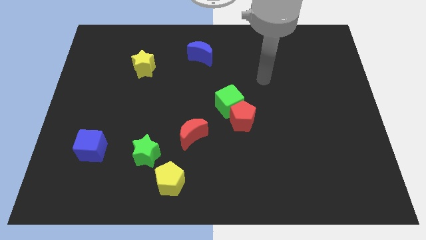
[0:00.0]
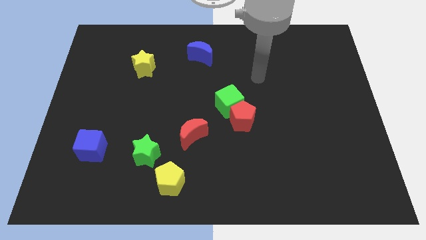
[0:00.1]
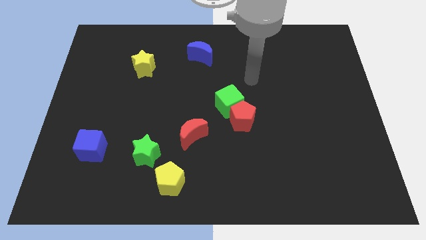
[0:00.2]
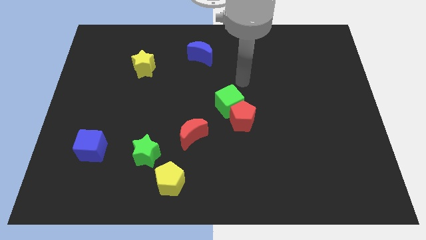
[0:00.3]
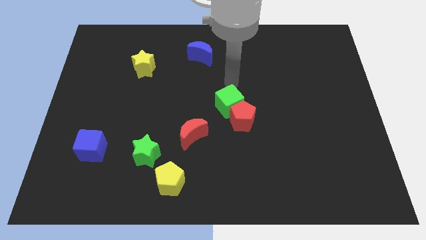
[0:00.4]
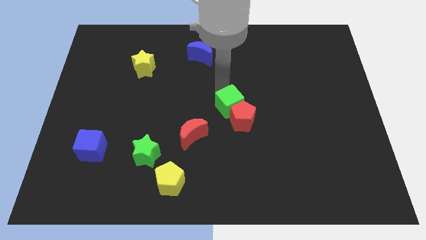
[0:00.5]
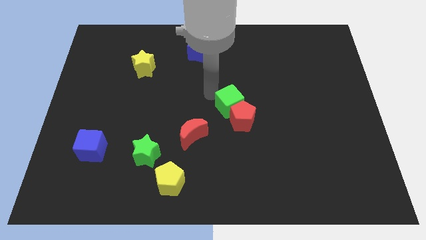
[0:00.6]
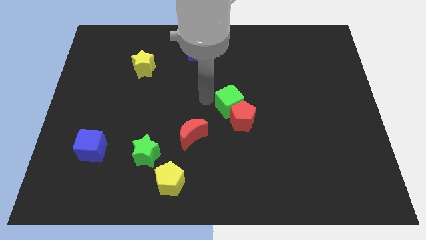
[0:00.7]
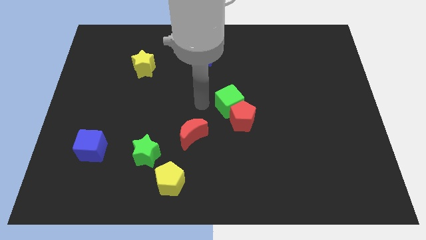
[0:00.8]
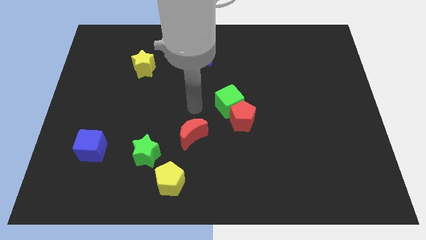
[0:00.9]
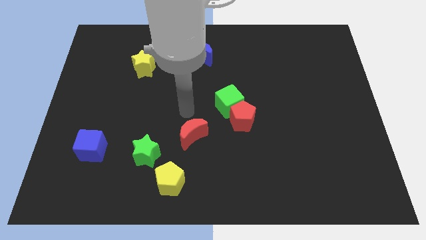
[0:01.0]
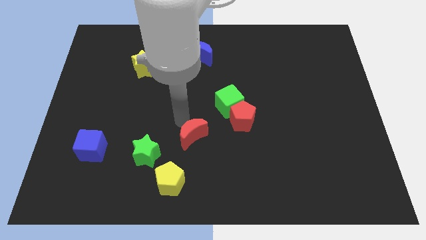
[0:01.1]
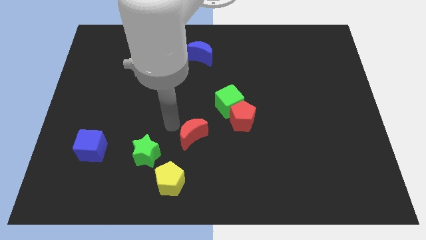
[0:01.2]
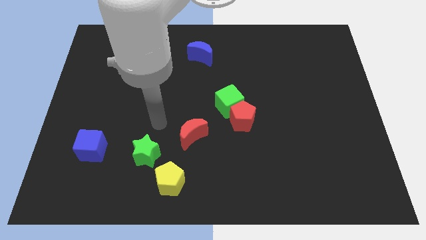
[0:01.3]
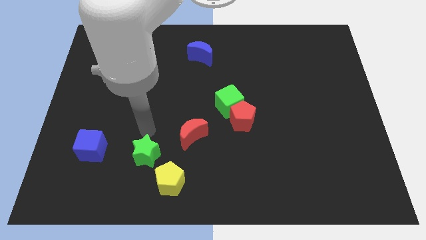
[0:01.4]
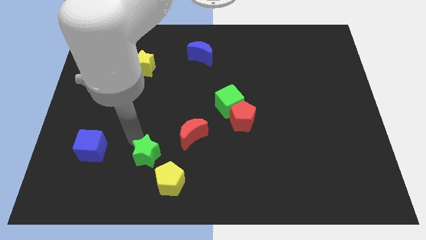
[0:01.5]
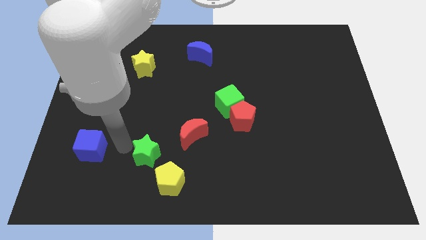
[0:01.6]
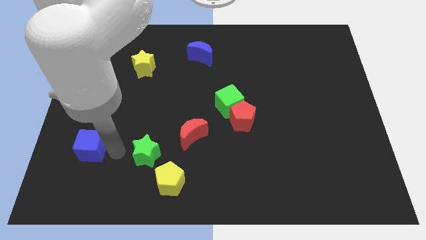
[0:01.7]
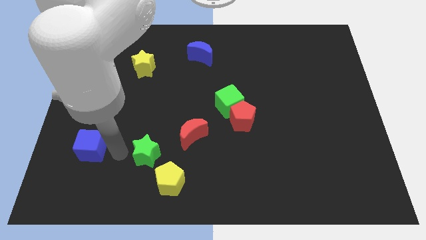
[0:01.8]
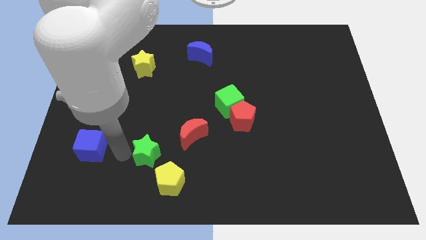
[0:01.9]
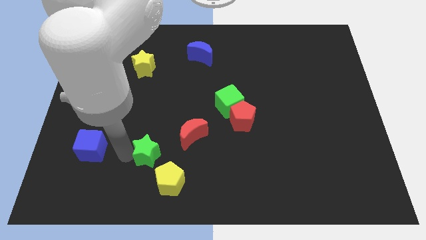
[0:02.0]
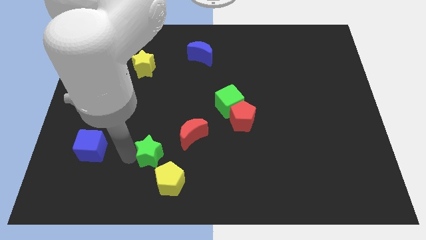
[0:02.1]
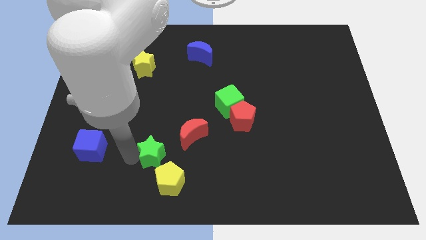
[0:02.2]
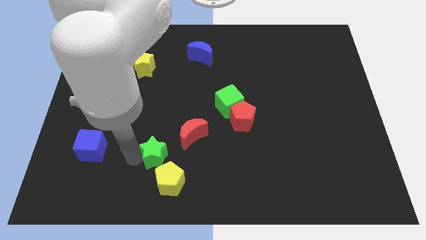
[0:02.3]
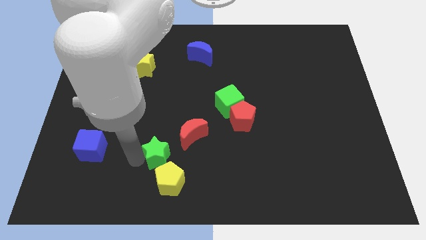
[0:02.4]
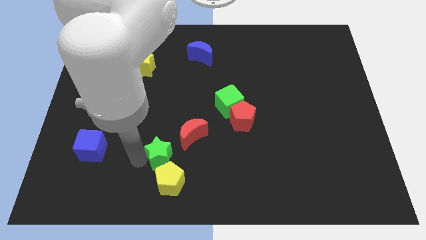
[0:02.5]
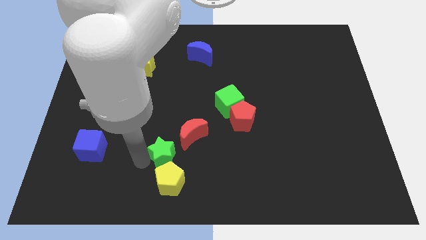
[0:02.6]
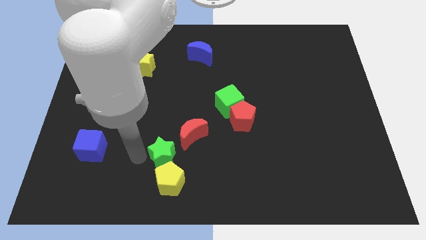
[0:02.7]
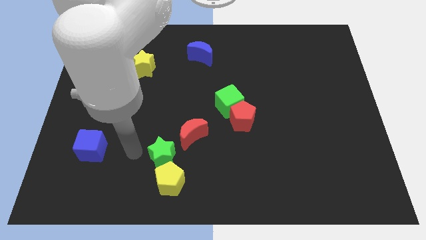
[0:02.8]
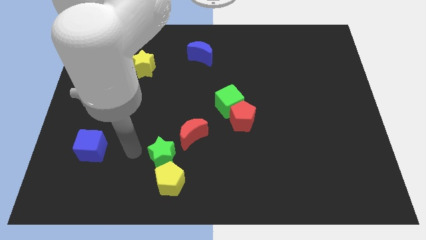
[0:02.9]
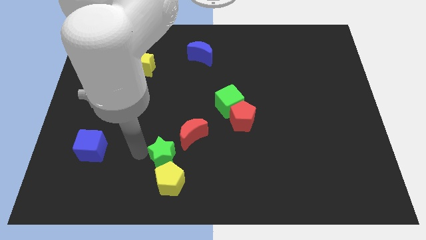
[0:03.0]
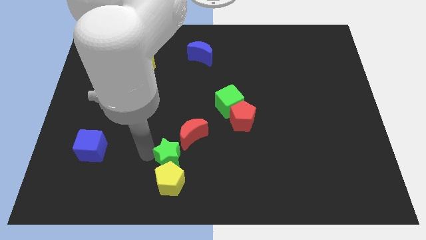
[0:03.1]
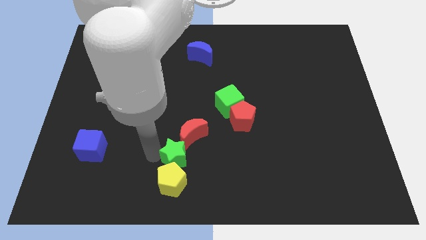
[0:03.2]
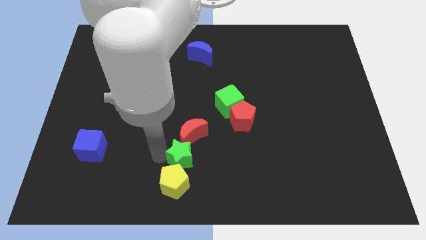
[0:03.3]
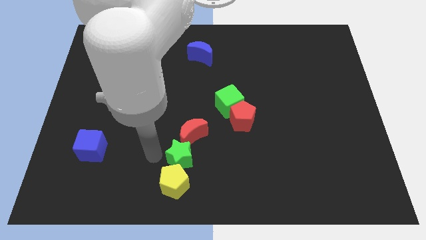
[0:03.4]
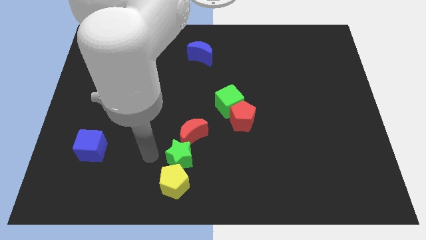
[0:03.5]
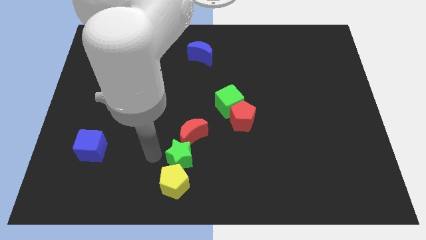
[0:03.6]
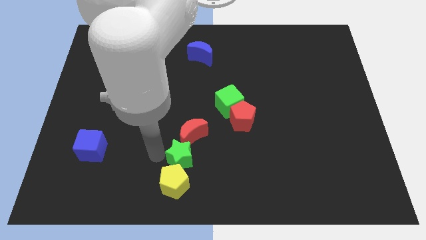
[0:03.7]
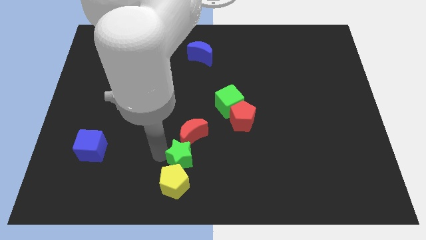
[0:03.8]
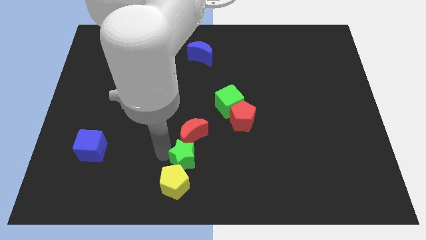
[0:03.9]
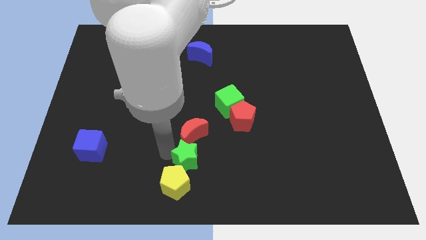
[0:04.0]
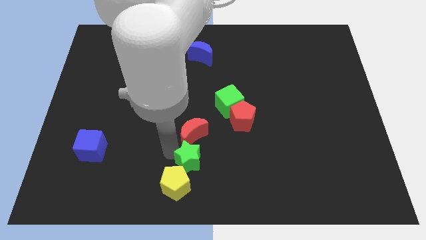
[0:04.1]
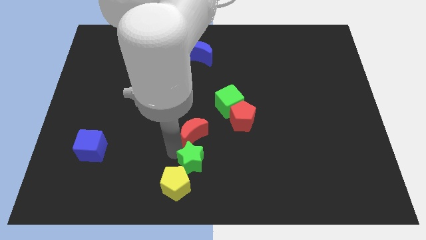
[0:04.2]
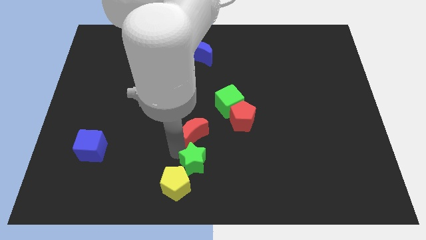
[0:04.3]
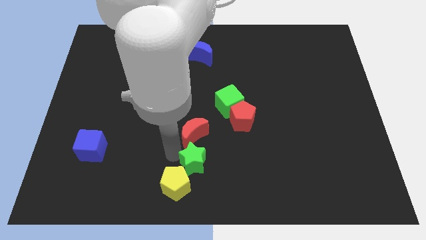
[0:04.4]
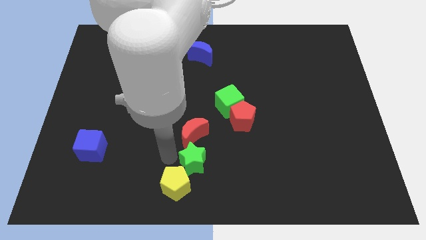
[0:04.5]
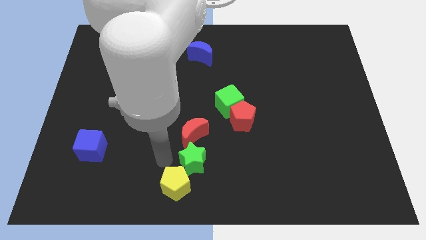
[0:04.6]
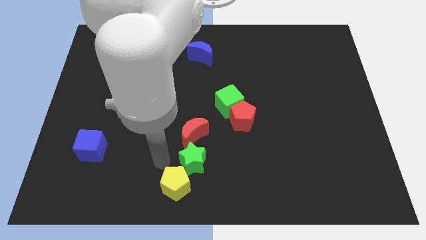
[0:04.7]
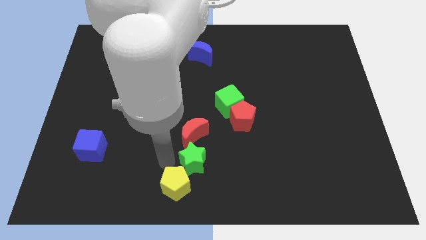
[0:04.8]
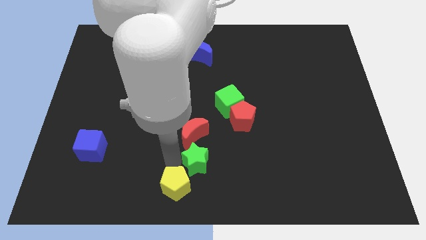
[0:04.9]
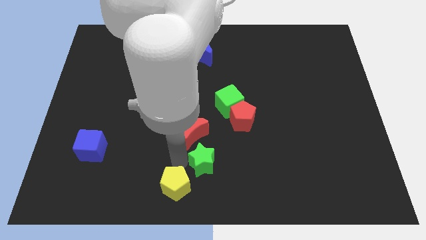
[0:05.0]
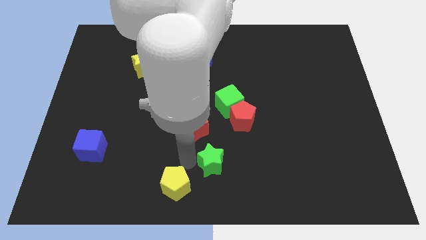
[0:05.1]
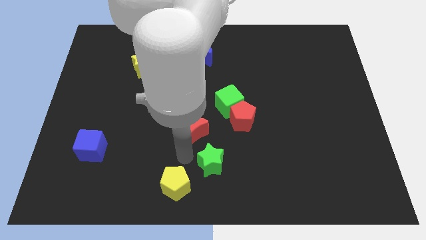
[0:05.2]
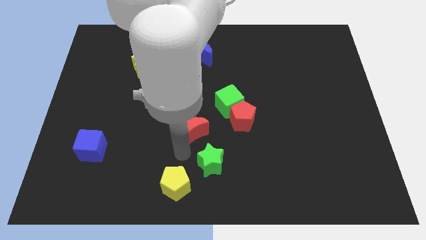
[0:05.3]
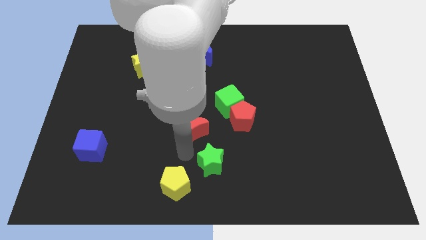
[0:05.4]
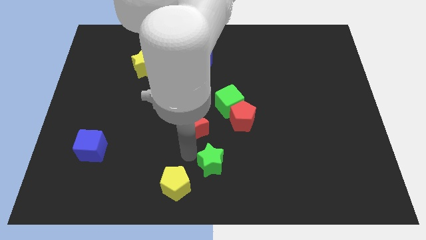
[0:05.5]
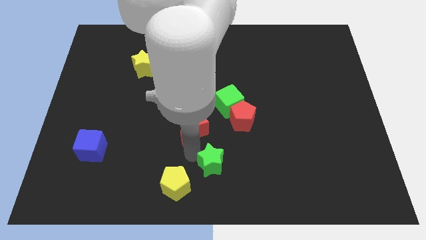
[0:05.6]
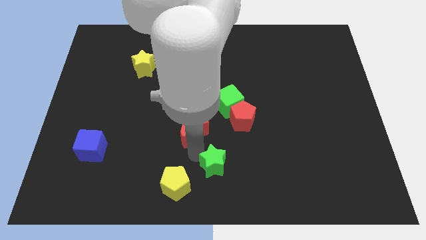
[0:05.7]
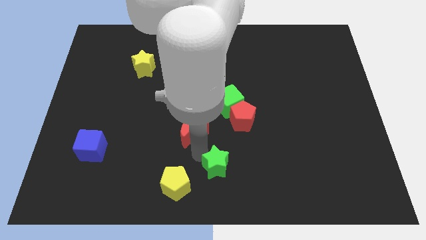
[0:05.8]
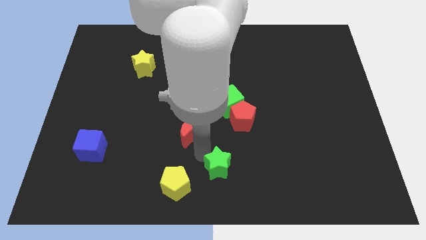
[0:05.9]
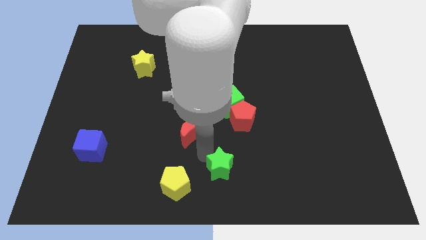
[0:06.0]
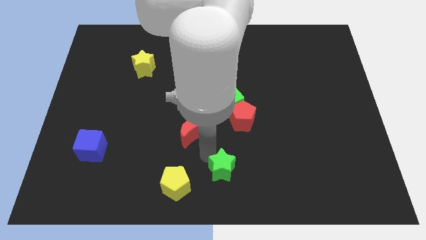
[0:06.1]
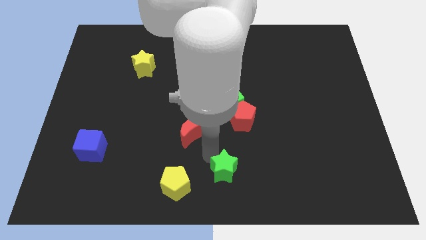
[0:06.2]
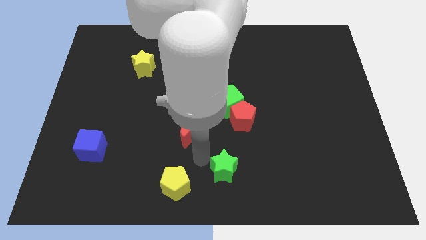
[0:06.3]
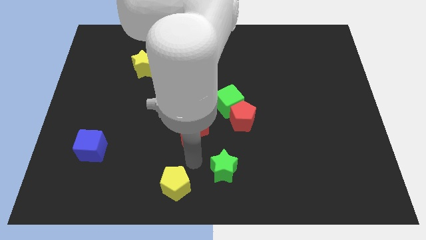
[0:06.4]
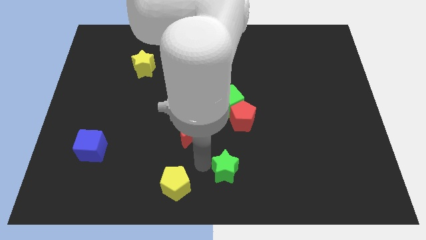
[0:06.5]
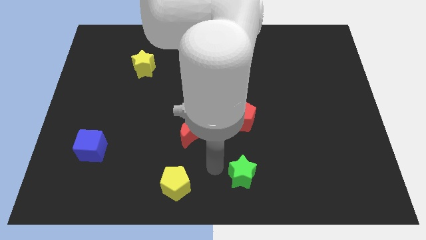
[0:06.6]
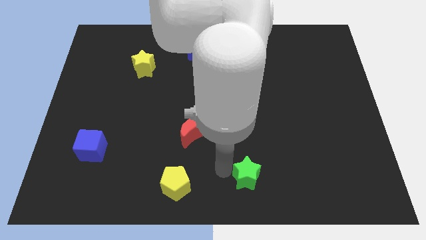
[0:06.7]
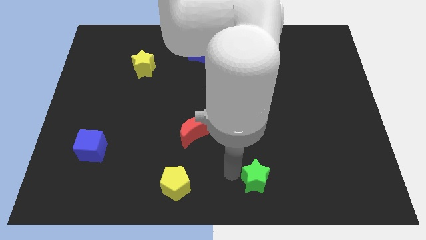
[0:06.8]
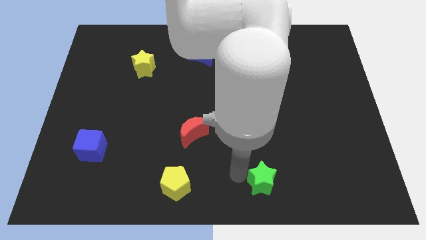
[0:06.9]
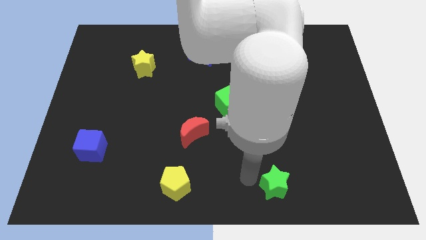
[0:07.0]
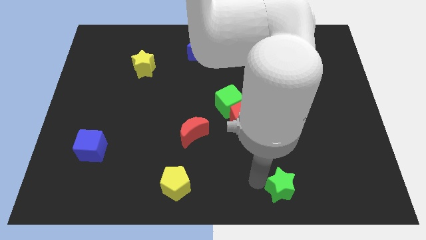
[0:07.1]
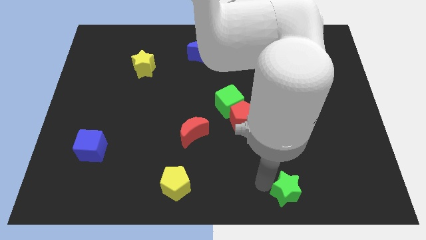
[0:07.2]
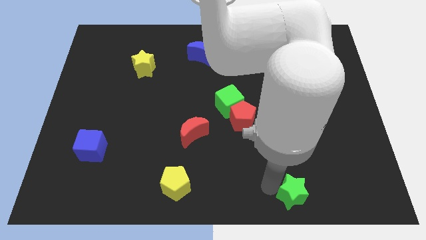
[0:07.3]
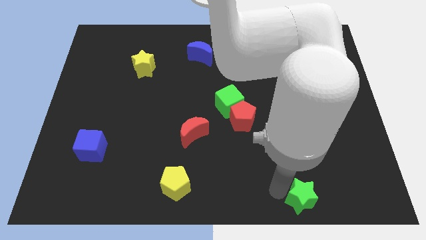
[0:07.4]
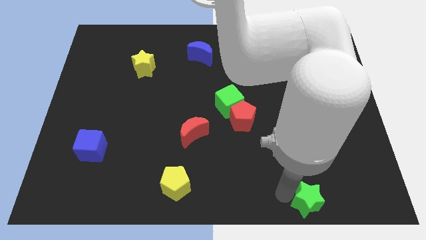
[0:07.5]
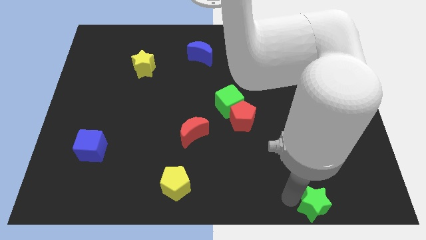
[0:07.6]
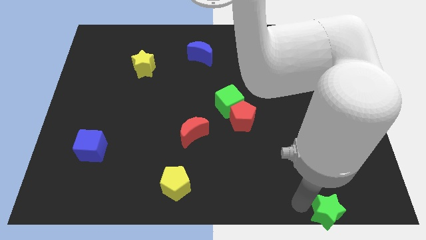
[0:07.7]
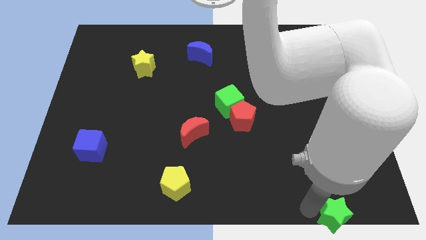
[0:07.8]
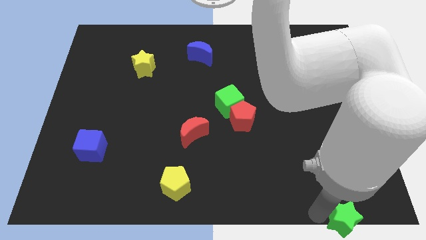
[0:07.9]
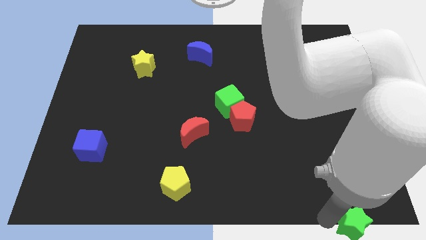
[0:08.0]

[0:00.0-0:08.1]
move the green star to the bottom right
